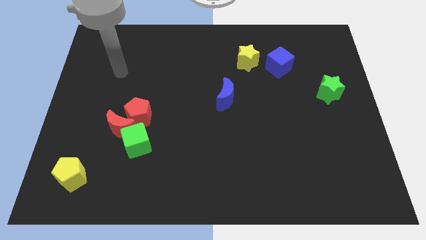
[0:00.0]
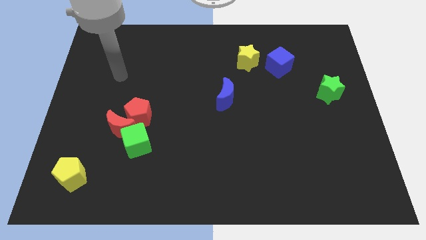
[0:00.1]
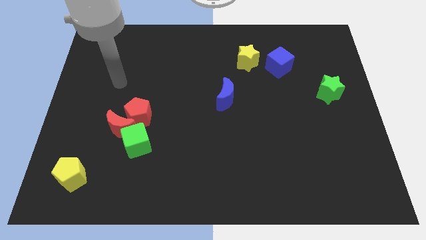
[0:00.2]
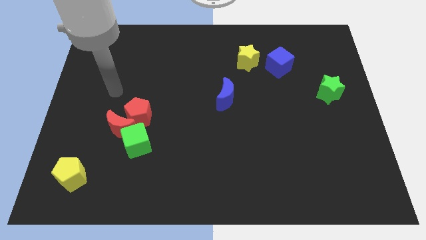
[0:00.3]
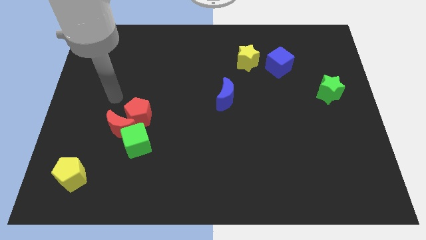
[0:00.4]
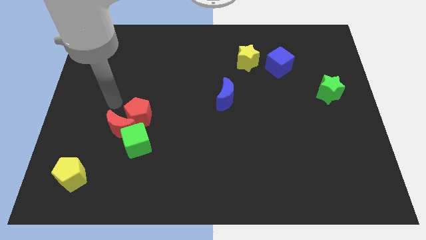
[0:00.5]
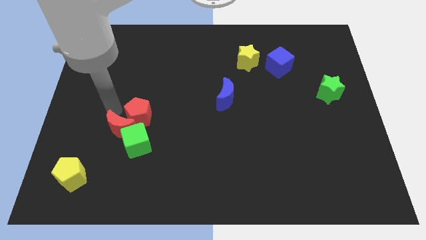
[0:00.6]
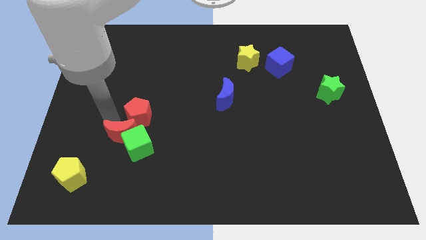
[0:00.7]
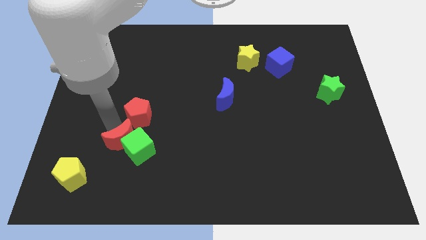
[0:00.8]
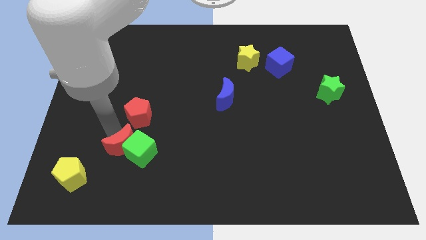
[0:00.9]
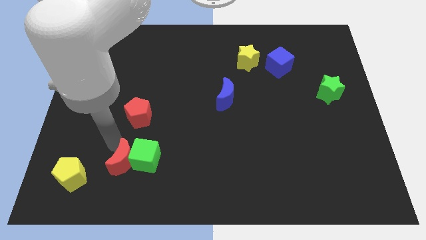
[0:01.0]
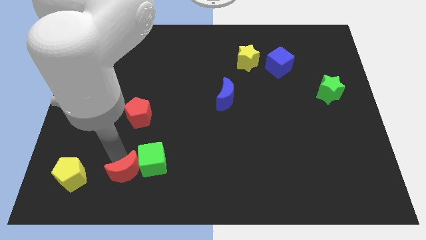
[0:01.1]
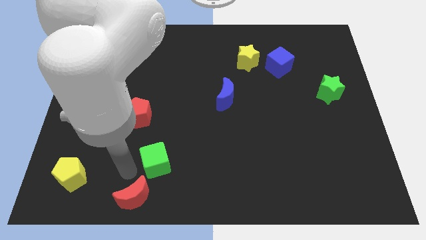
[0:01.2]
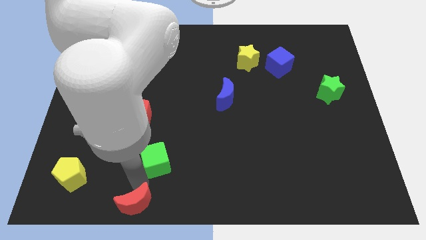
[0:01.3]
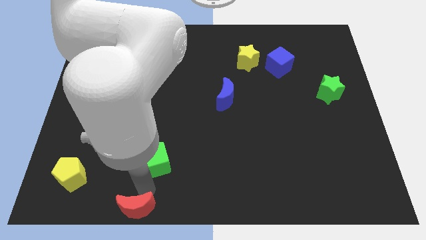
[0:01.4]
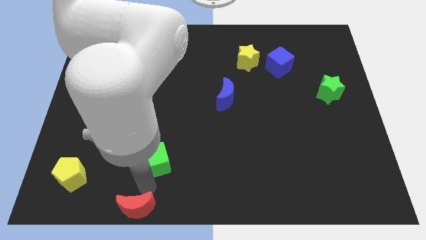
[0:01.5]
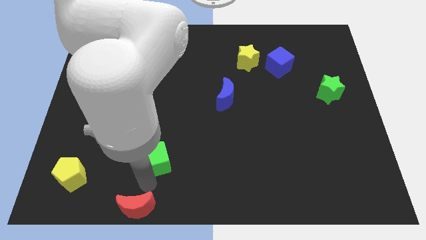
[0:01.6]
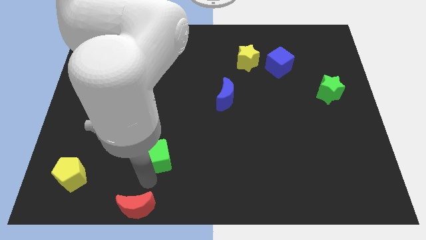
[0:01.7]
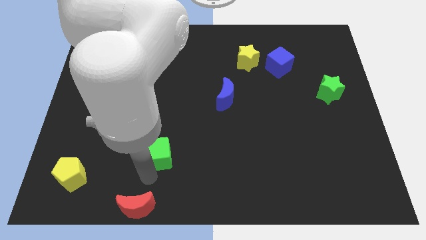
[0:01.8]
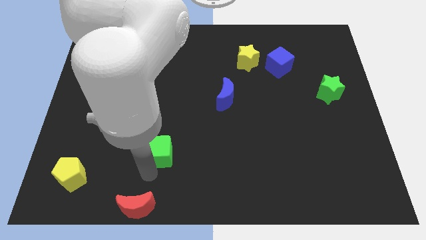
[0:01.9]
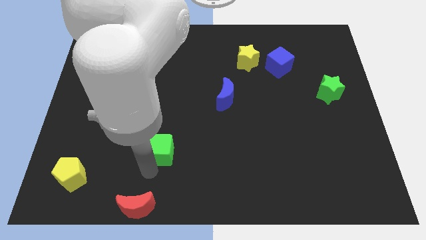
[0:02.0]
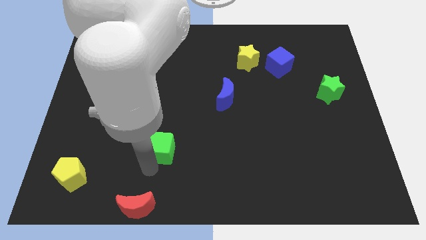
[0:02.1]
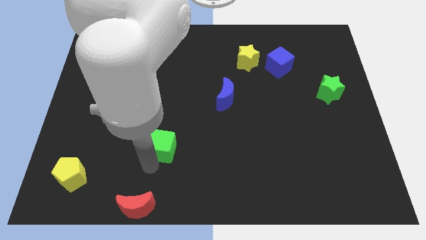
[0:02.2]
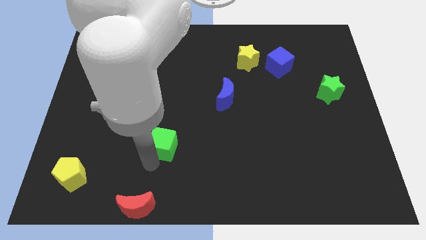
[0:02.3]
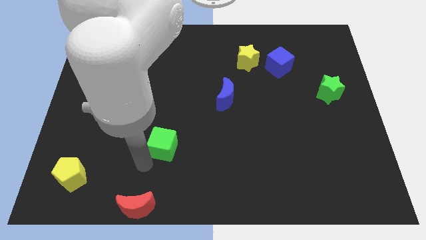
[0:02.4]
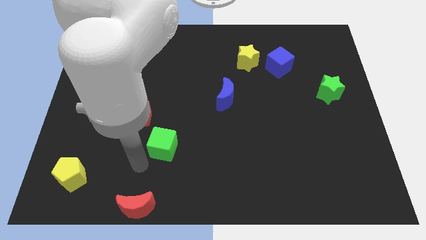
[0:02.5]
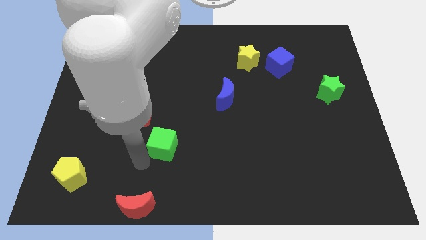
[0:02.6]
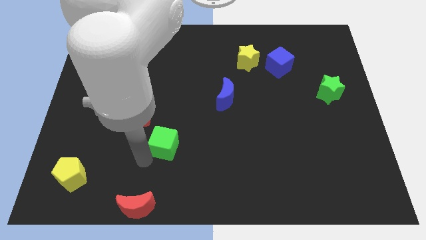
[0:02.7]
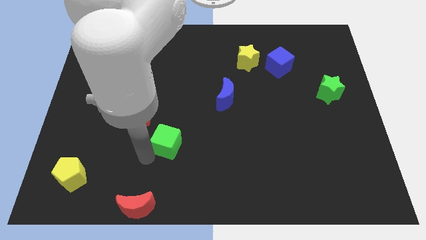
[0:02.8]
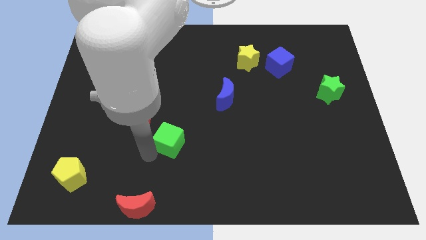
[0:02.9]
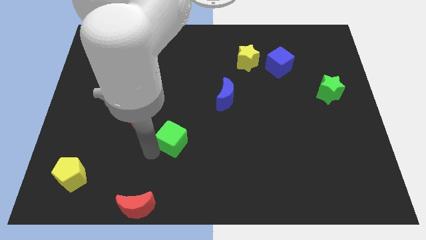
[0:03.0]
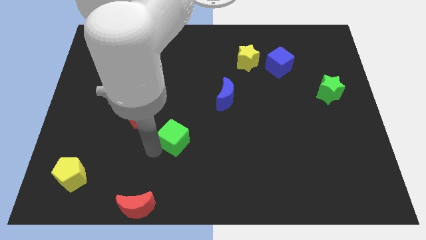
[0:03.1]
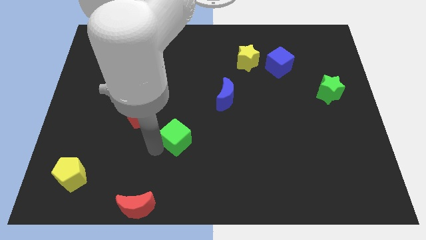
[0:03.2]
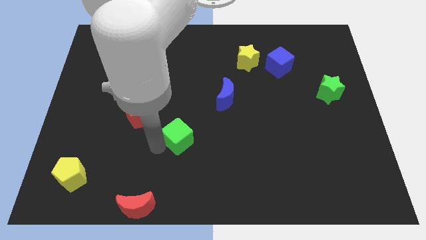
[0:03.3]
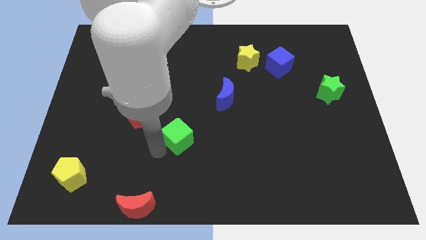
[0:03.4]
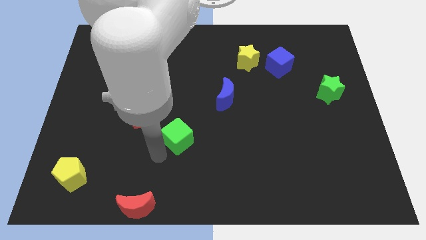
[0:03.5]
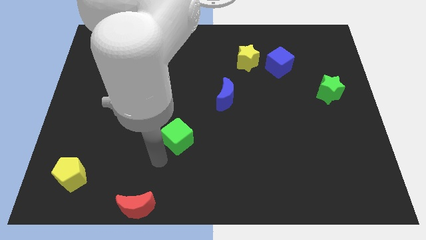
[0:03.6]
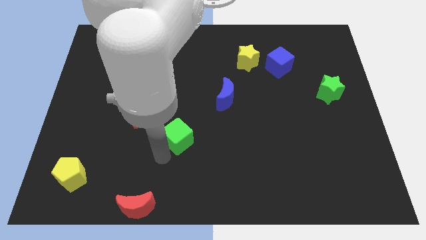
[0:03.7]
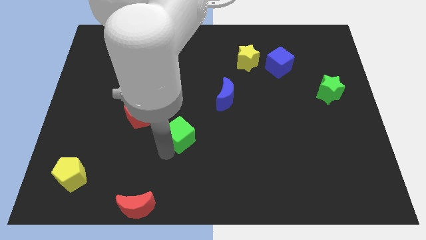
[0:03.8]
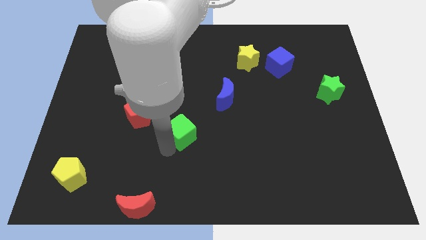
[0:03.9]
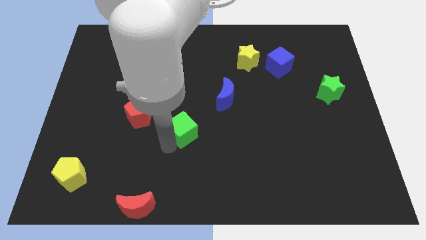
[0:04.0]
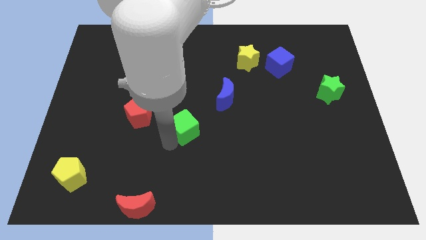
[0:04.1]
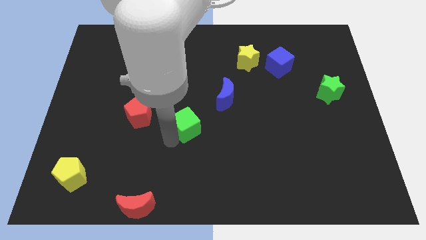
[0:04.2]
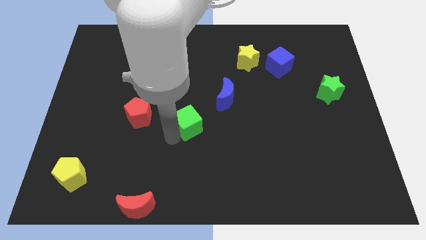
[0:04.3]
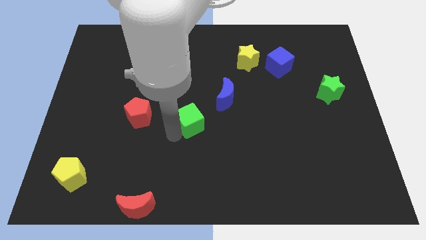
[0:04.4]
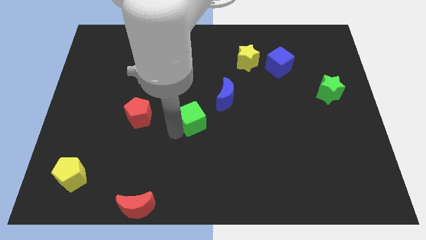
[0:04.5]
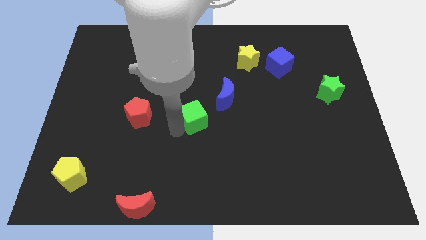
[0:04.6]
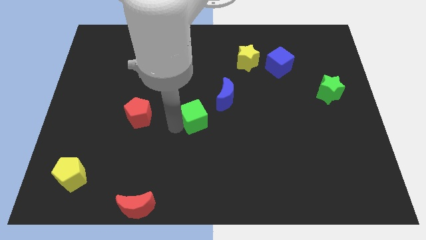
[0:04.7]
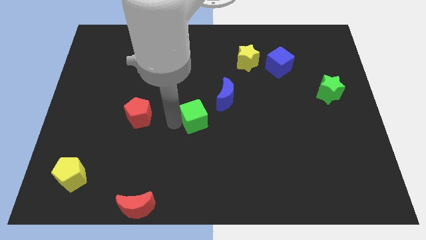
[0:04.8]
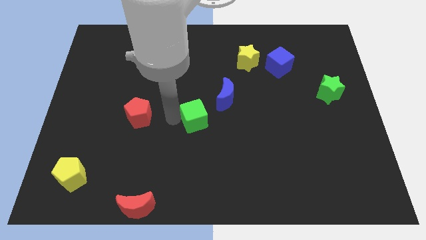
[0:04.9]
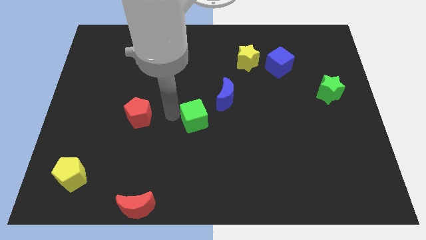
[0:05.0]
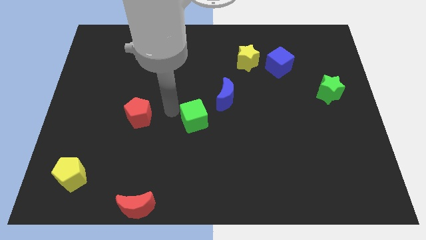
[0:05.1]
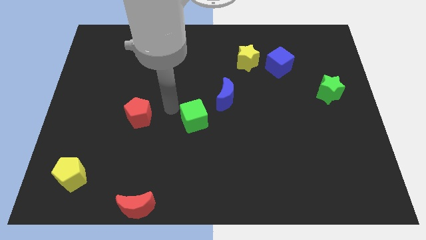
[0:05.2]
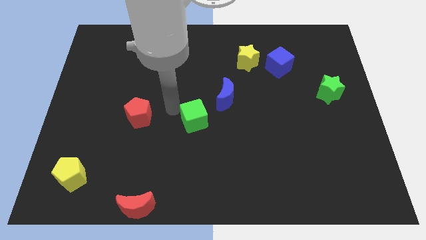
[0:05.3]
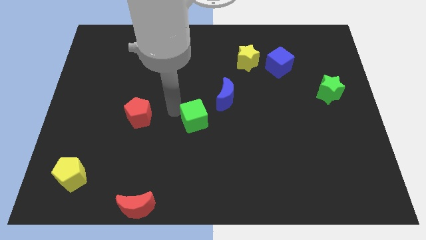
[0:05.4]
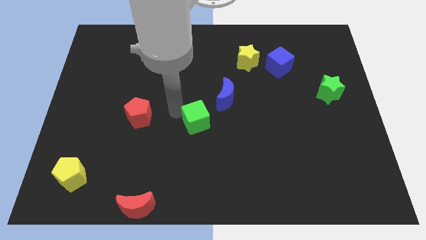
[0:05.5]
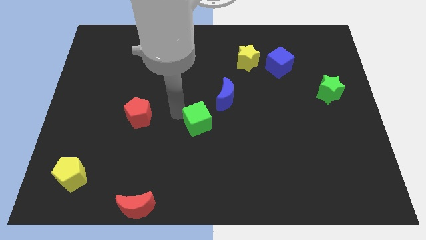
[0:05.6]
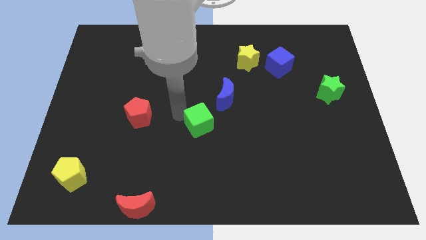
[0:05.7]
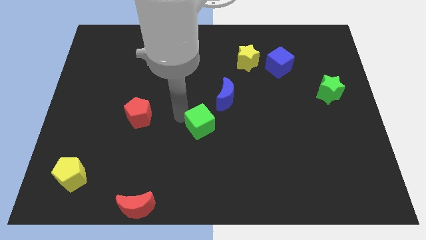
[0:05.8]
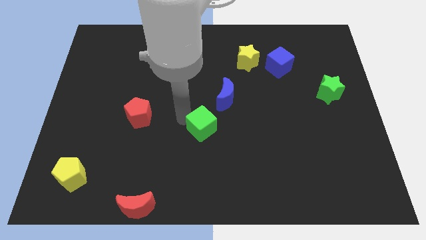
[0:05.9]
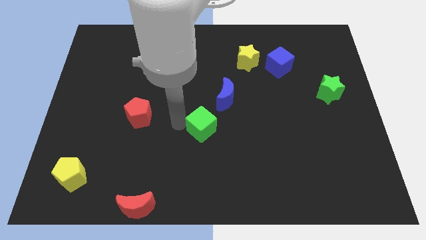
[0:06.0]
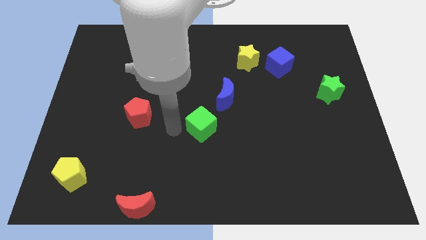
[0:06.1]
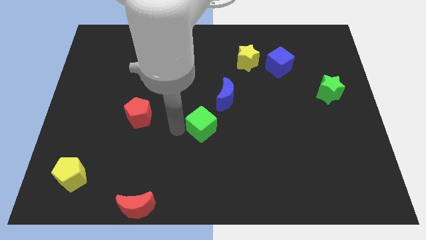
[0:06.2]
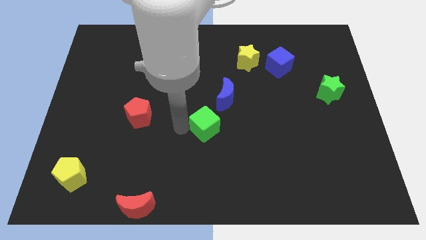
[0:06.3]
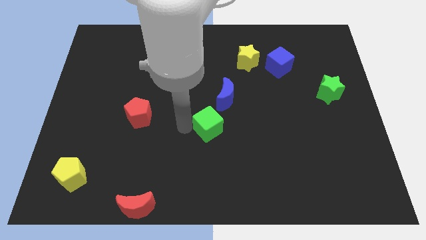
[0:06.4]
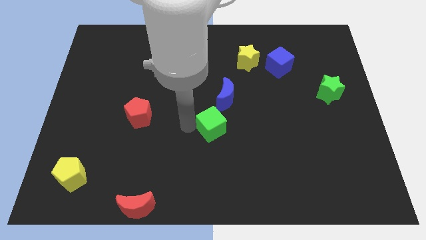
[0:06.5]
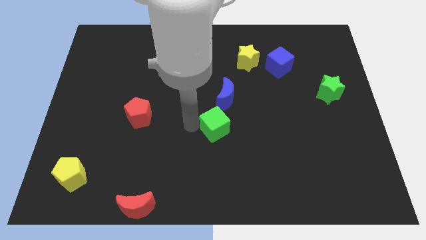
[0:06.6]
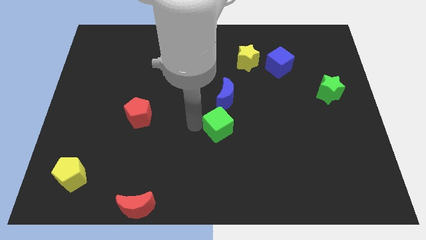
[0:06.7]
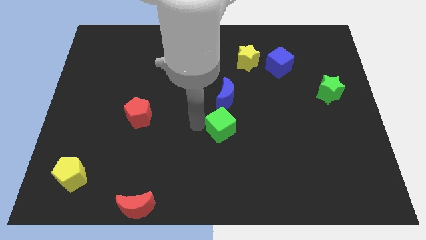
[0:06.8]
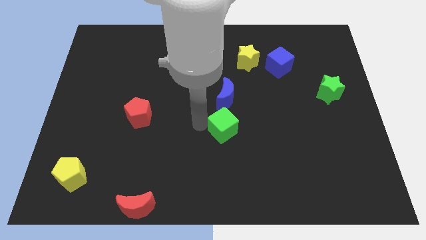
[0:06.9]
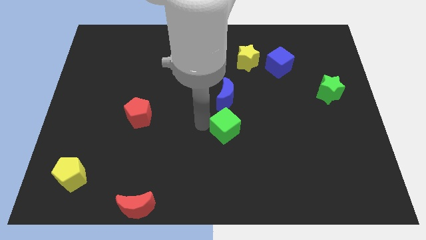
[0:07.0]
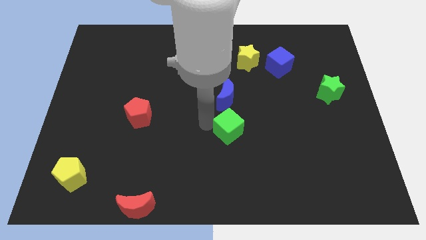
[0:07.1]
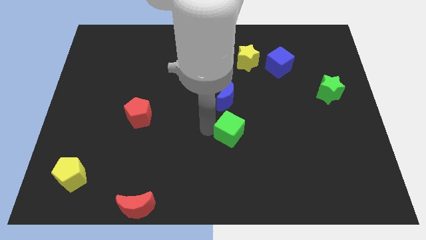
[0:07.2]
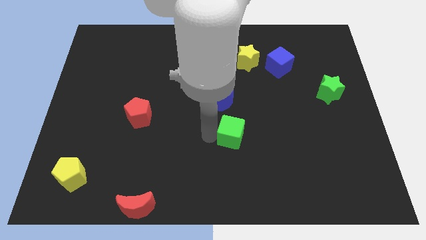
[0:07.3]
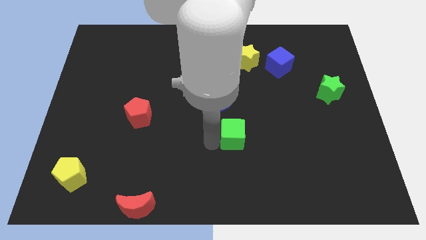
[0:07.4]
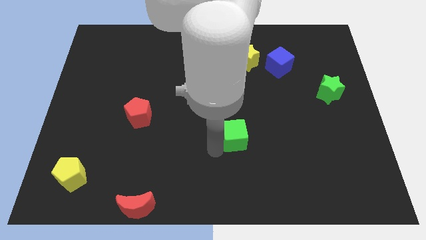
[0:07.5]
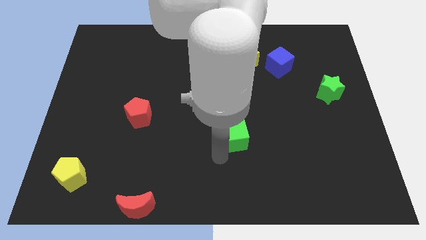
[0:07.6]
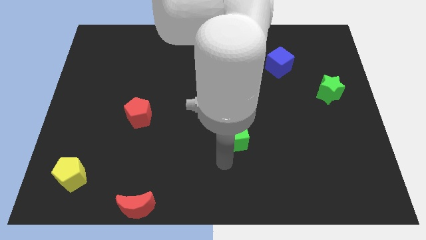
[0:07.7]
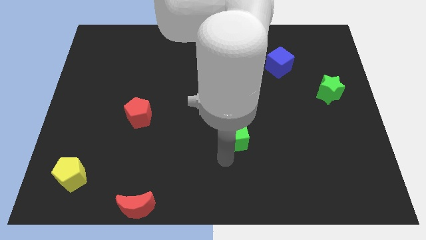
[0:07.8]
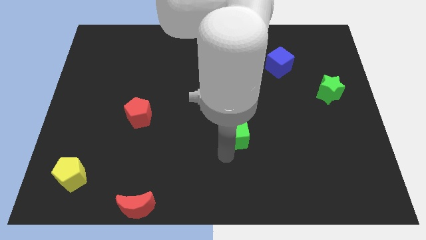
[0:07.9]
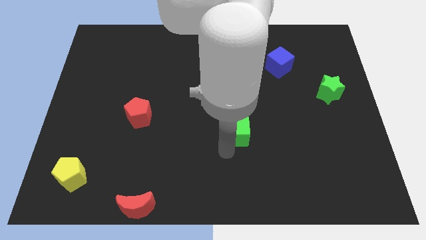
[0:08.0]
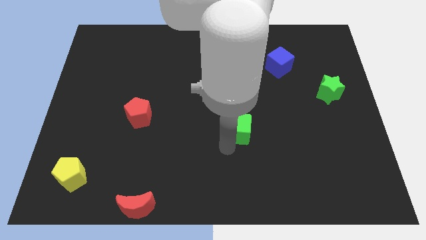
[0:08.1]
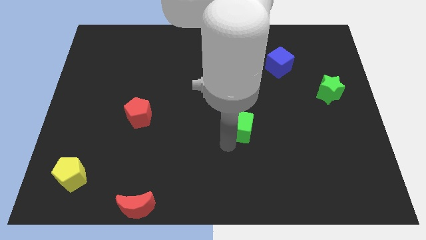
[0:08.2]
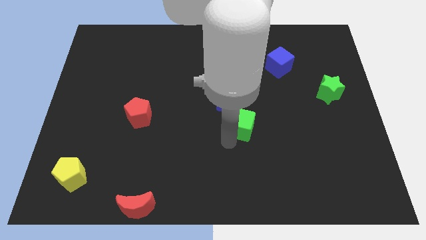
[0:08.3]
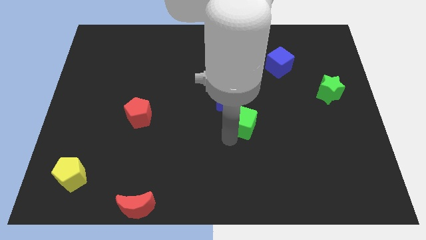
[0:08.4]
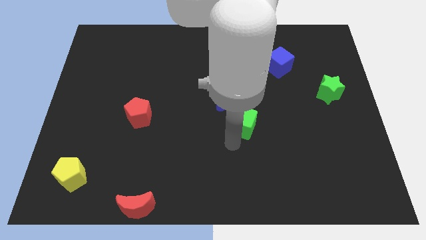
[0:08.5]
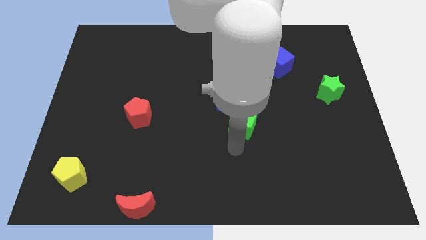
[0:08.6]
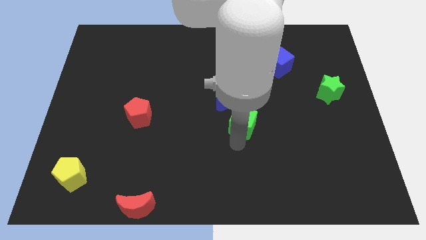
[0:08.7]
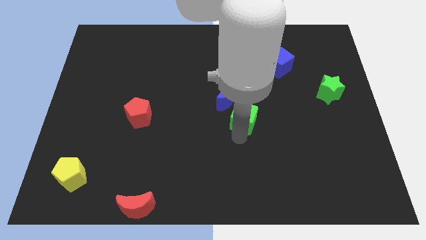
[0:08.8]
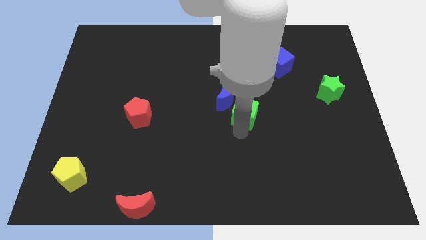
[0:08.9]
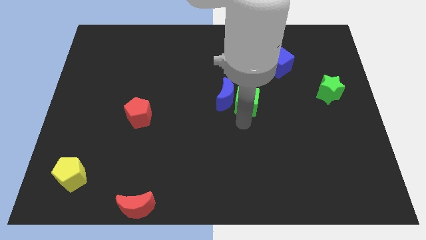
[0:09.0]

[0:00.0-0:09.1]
push the green cube to the top right of the blue moon
